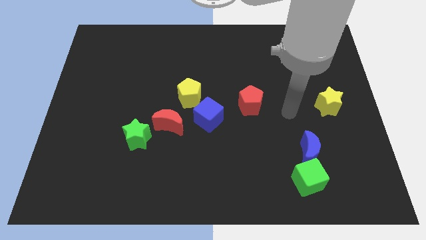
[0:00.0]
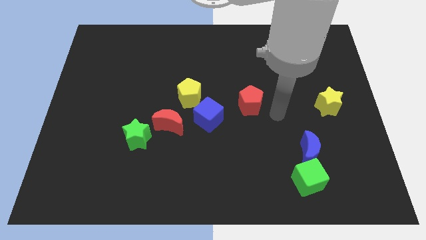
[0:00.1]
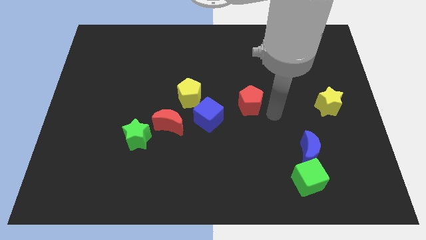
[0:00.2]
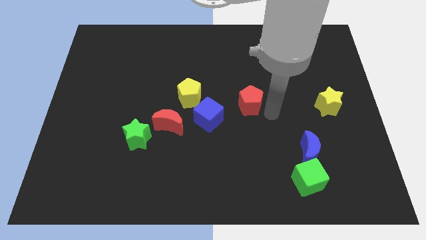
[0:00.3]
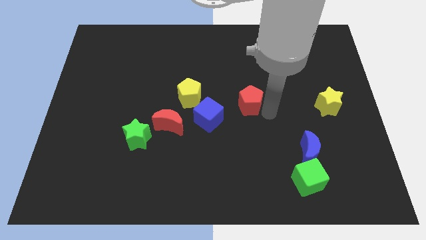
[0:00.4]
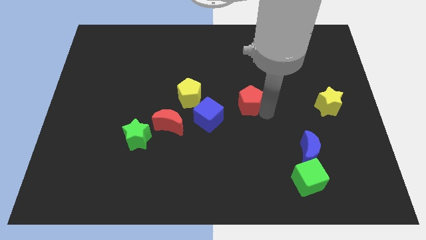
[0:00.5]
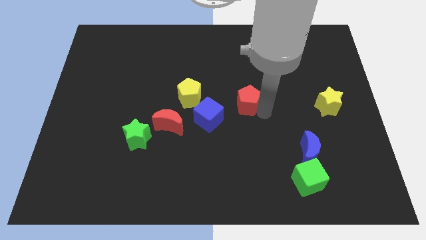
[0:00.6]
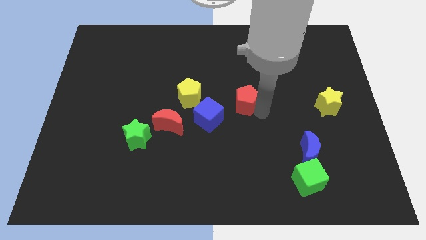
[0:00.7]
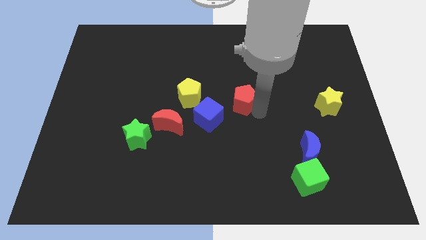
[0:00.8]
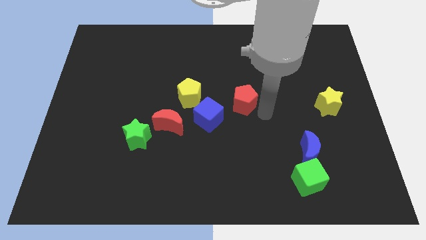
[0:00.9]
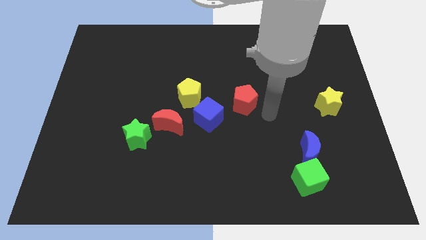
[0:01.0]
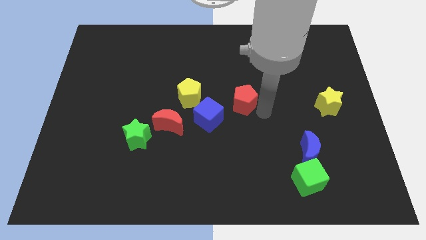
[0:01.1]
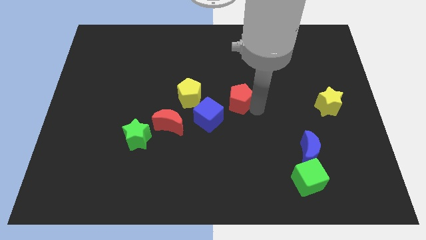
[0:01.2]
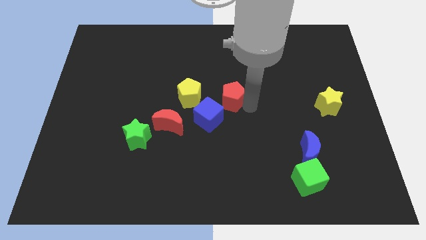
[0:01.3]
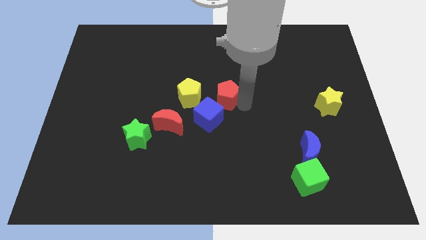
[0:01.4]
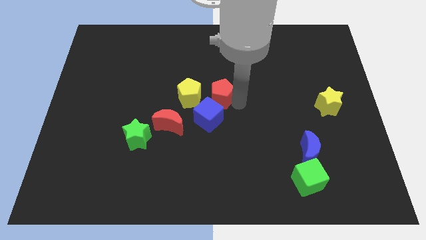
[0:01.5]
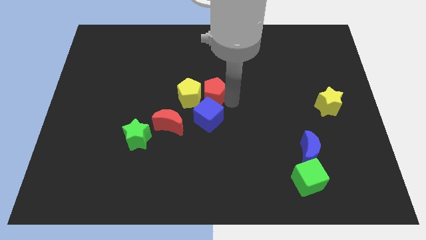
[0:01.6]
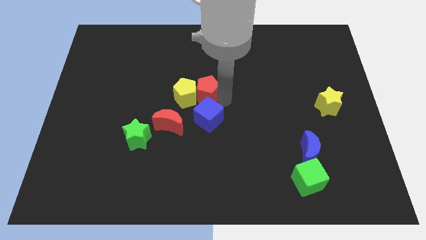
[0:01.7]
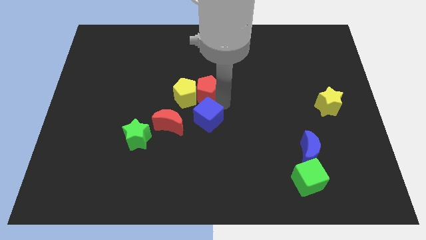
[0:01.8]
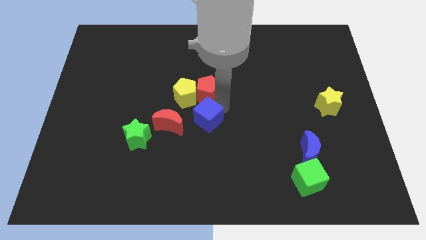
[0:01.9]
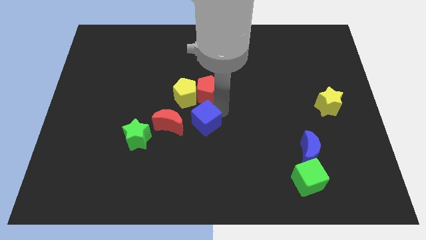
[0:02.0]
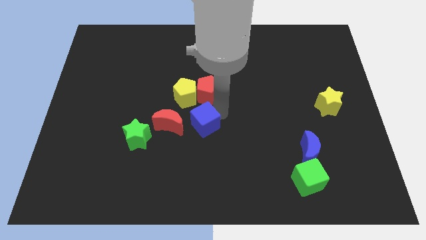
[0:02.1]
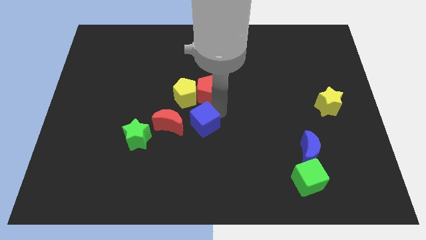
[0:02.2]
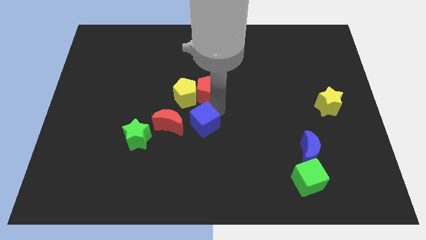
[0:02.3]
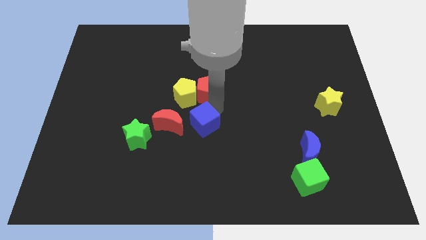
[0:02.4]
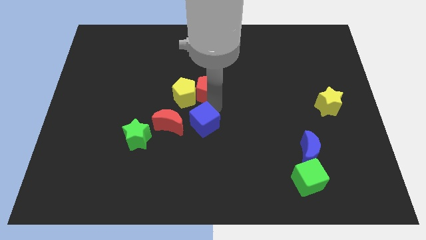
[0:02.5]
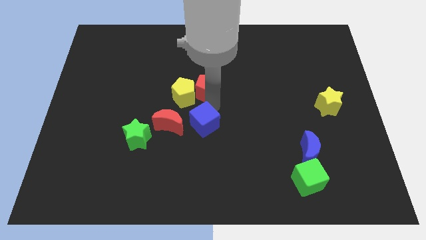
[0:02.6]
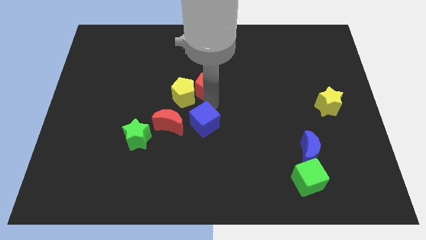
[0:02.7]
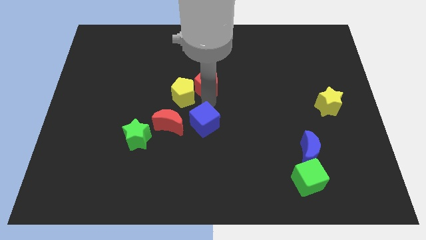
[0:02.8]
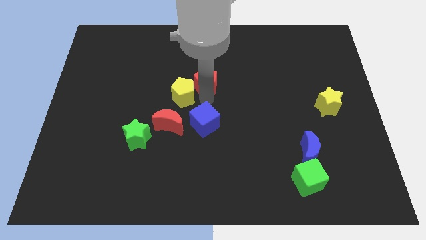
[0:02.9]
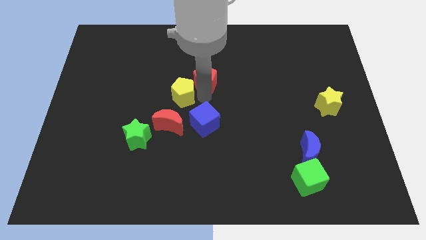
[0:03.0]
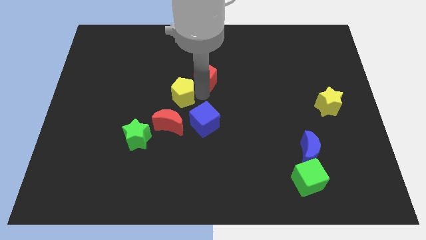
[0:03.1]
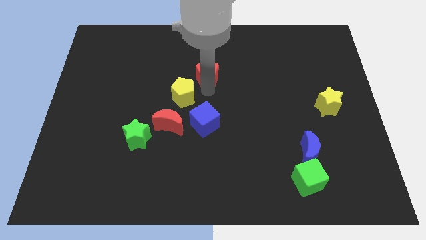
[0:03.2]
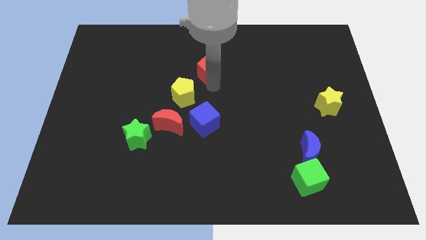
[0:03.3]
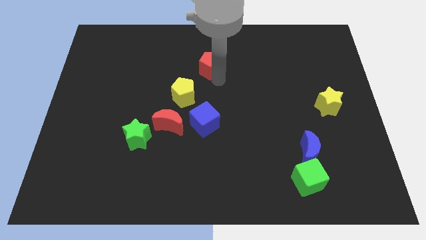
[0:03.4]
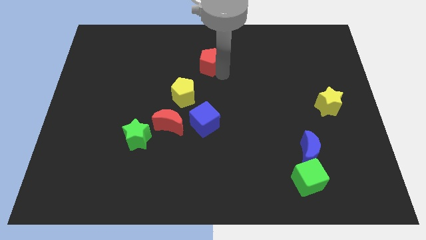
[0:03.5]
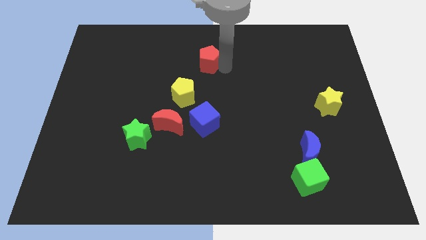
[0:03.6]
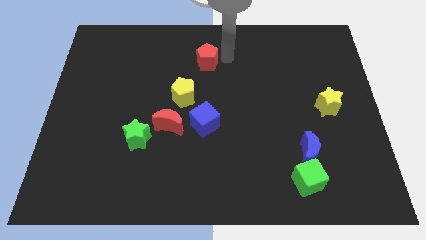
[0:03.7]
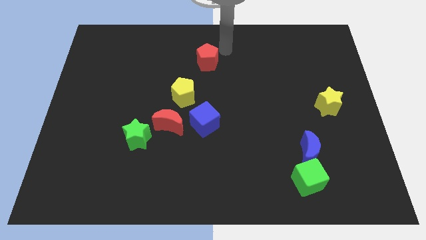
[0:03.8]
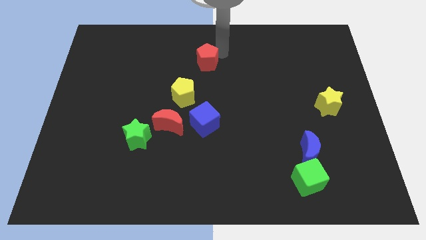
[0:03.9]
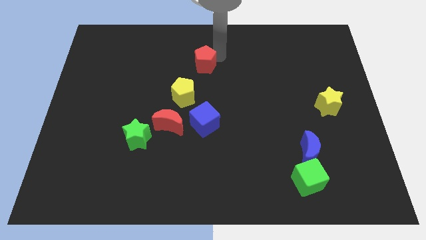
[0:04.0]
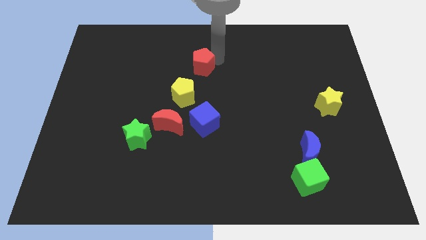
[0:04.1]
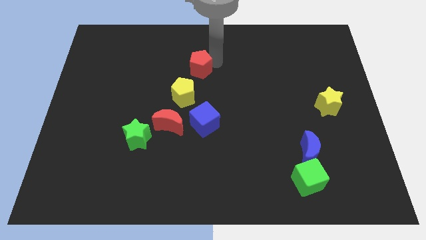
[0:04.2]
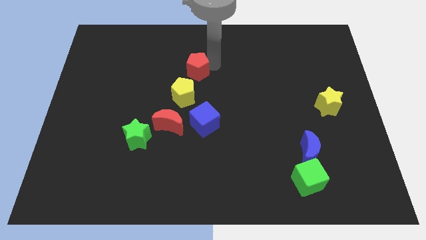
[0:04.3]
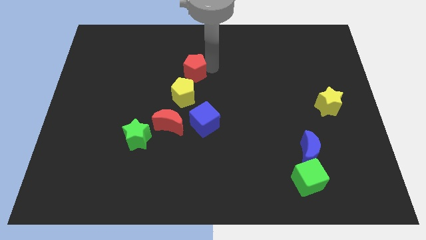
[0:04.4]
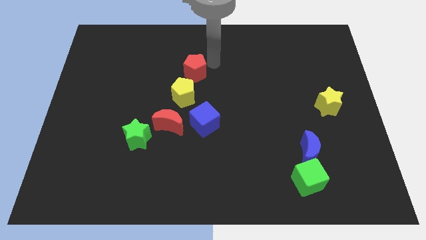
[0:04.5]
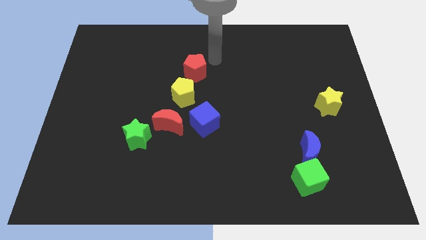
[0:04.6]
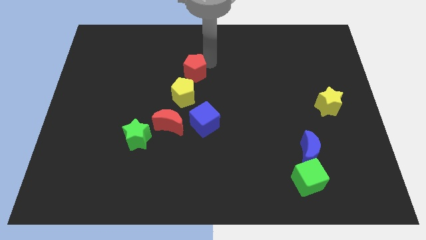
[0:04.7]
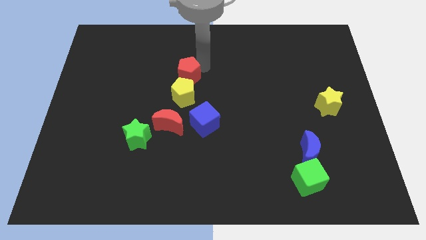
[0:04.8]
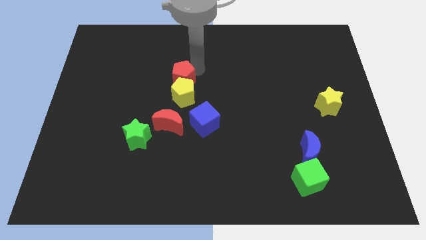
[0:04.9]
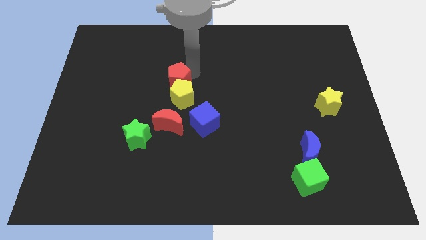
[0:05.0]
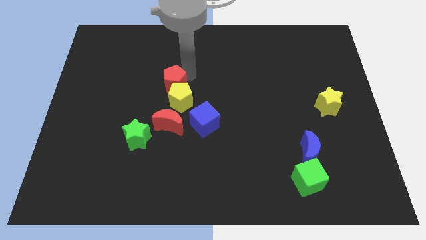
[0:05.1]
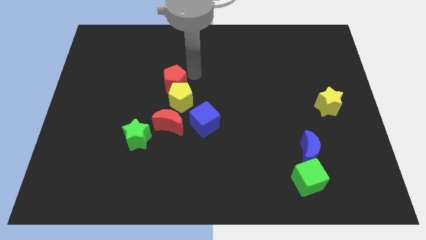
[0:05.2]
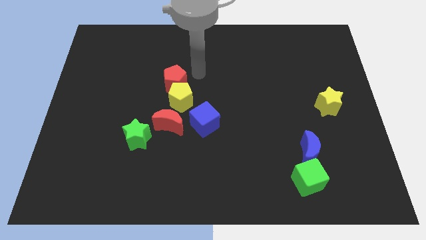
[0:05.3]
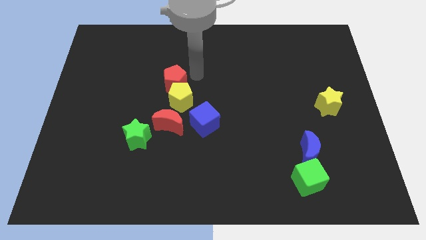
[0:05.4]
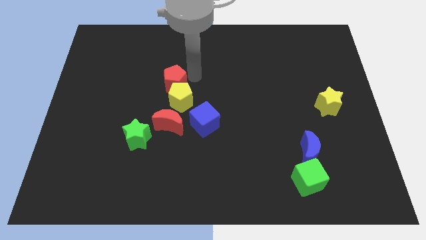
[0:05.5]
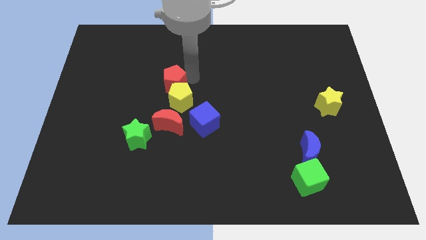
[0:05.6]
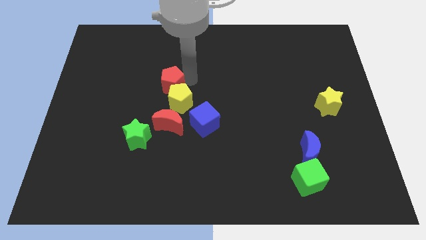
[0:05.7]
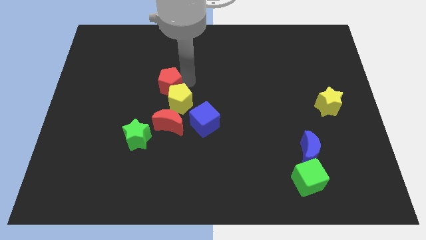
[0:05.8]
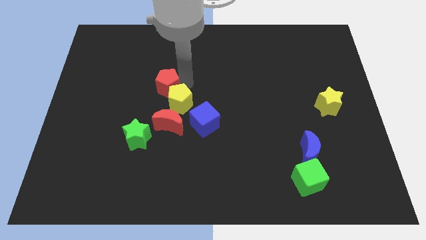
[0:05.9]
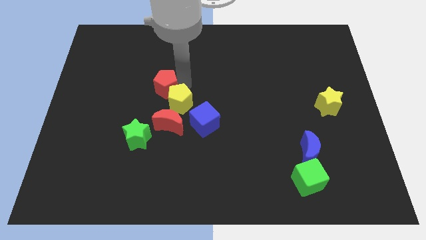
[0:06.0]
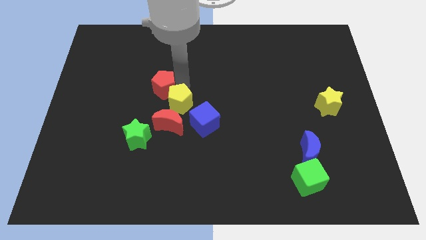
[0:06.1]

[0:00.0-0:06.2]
move the red pentagon left

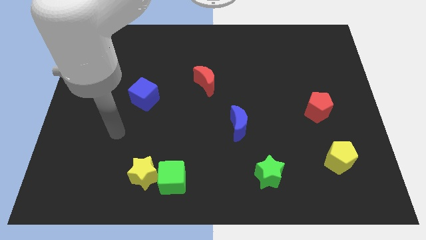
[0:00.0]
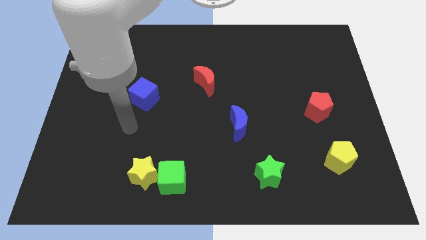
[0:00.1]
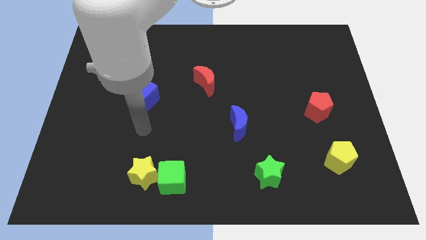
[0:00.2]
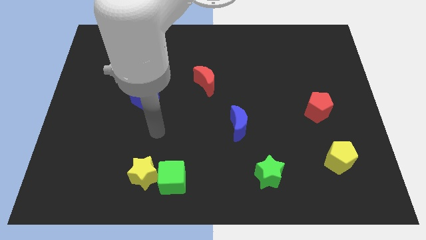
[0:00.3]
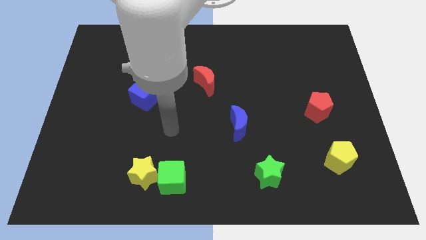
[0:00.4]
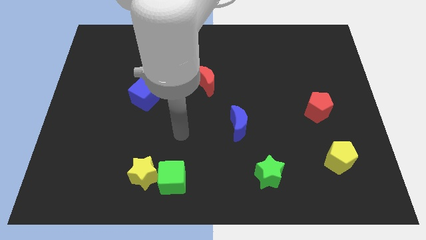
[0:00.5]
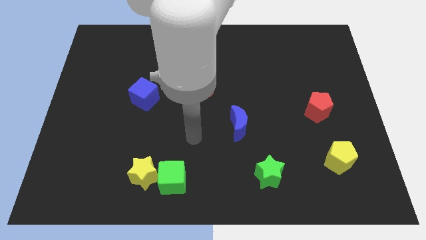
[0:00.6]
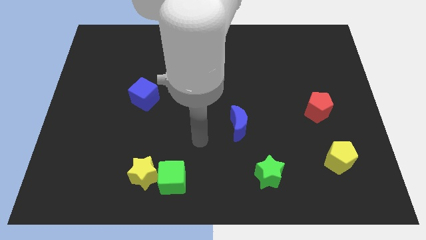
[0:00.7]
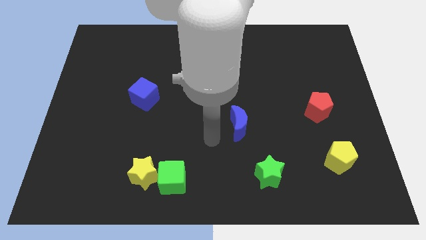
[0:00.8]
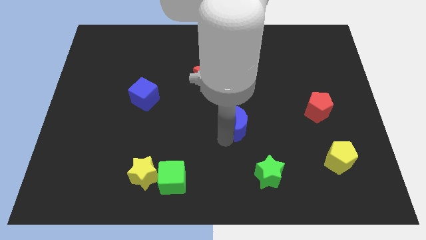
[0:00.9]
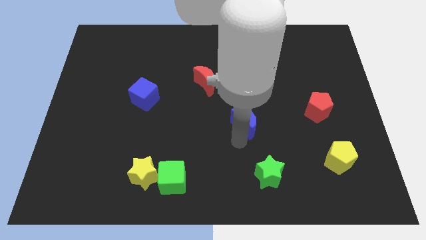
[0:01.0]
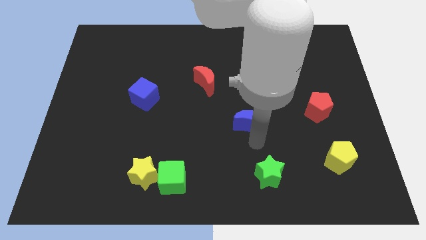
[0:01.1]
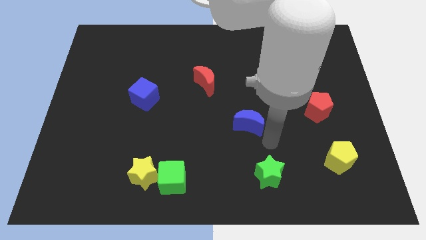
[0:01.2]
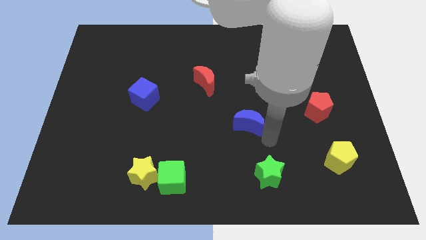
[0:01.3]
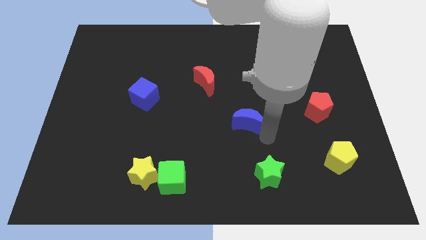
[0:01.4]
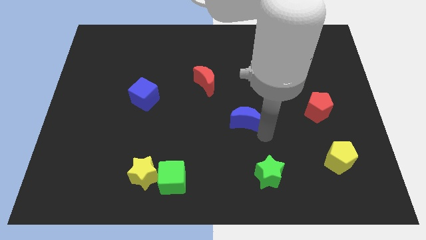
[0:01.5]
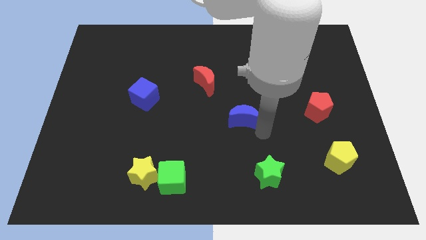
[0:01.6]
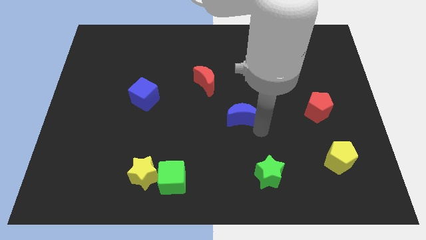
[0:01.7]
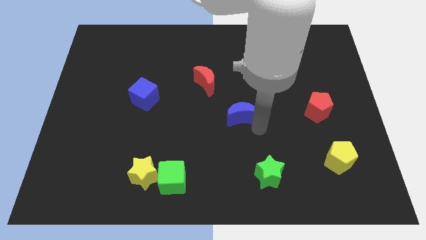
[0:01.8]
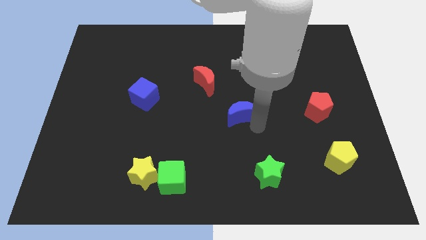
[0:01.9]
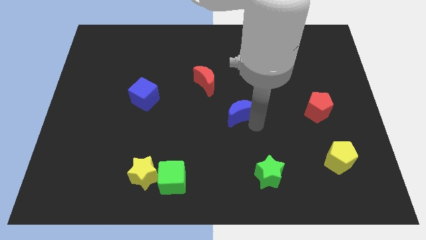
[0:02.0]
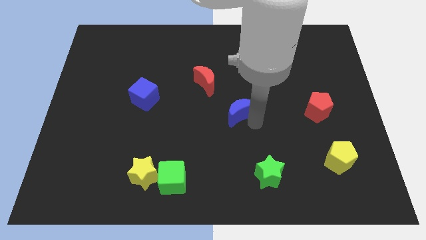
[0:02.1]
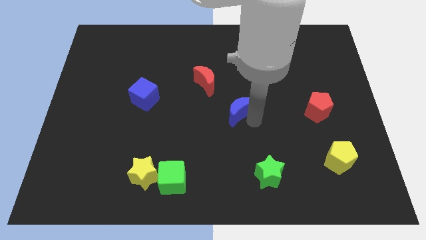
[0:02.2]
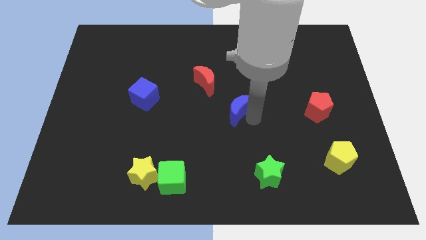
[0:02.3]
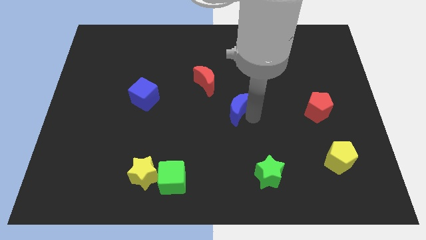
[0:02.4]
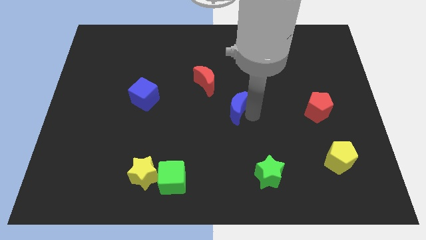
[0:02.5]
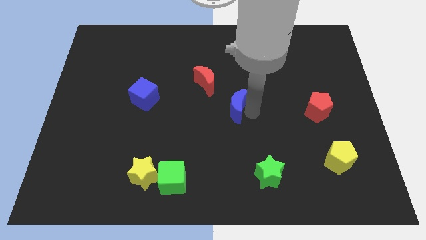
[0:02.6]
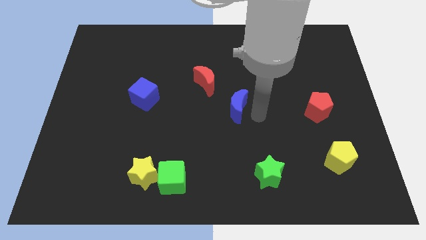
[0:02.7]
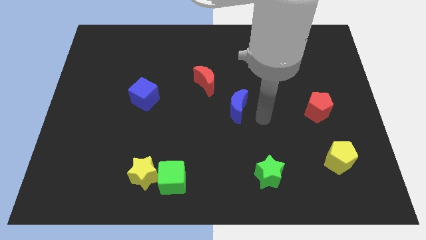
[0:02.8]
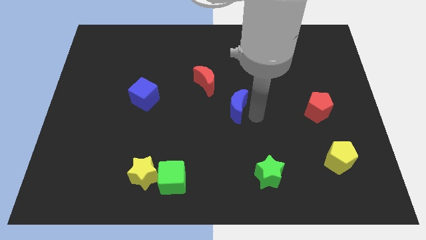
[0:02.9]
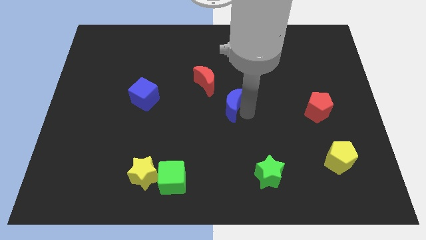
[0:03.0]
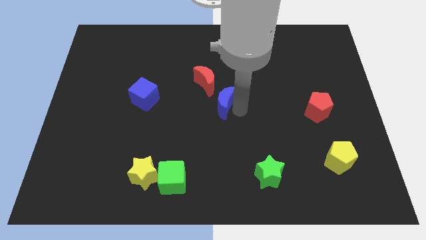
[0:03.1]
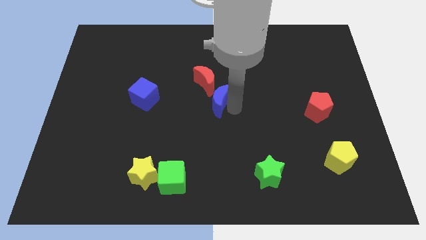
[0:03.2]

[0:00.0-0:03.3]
push the blue moon up and to the left a bit
